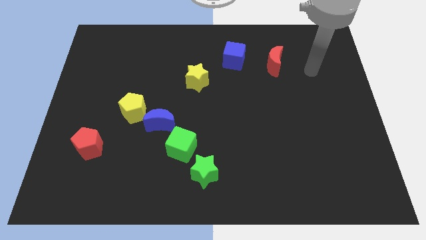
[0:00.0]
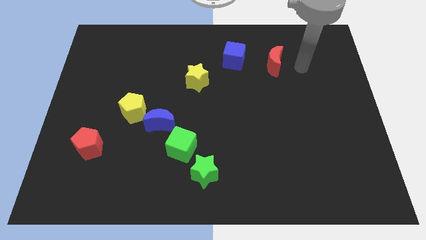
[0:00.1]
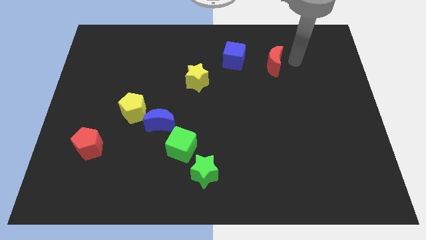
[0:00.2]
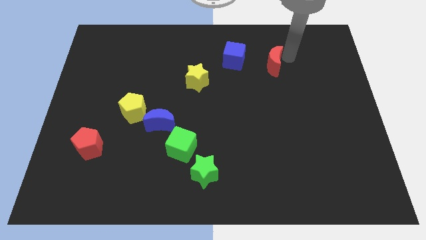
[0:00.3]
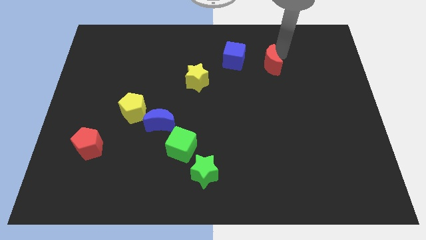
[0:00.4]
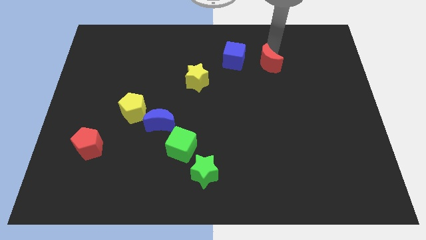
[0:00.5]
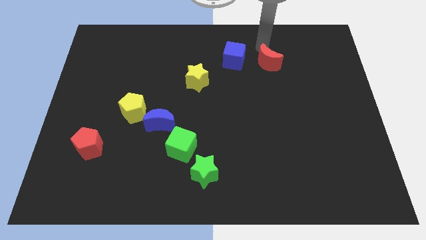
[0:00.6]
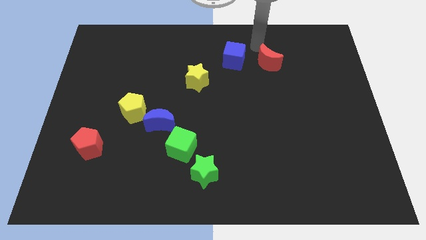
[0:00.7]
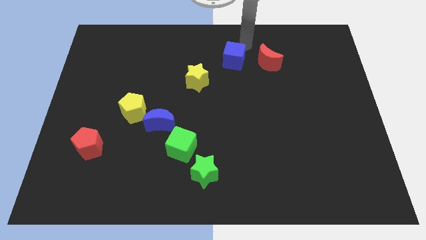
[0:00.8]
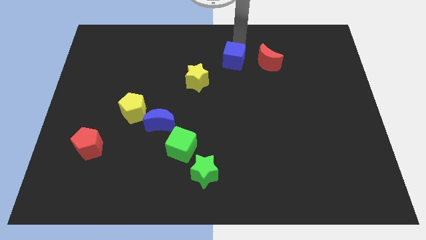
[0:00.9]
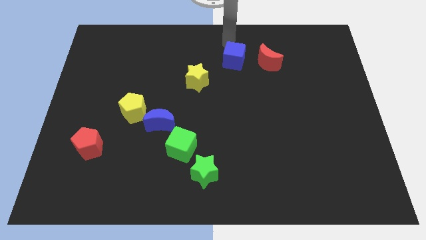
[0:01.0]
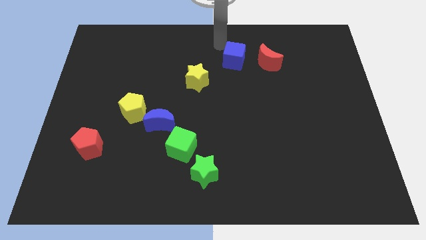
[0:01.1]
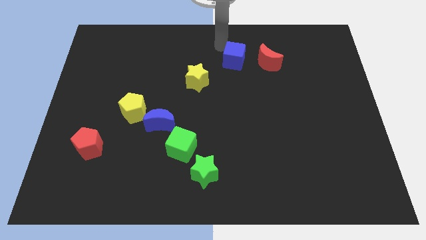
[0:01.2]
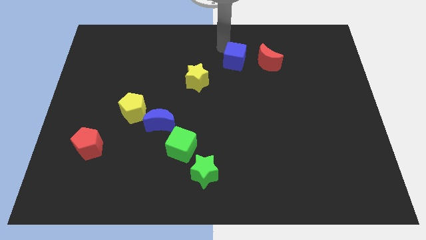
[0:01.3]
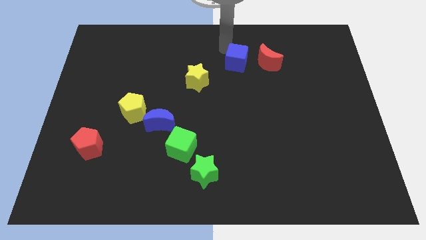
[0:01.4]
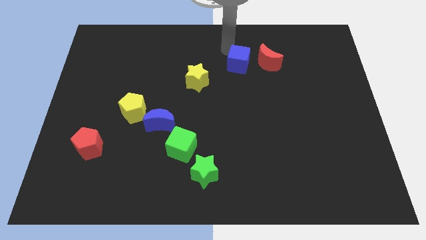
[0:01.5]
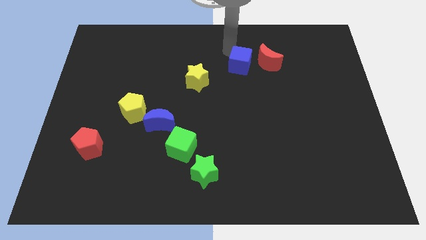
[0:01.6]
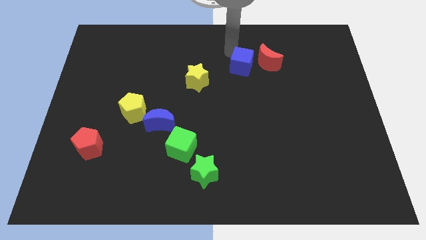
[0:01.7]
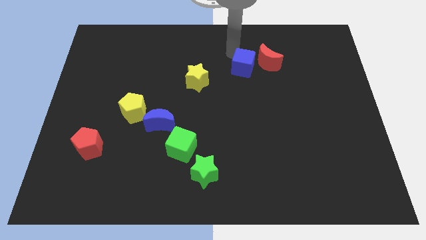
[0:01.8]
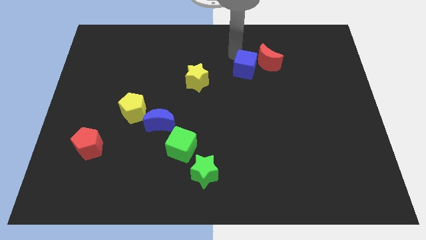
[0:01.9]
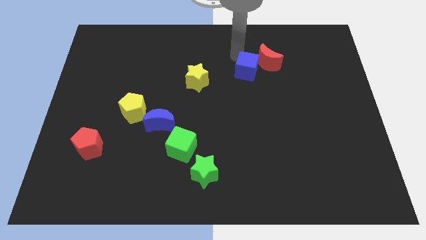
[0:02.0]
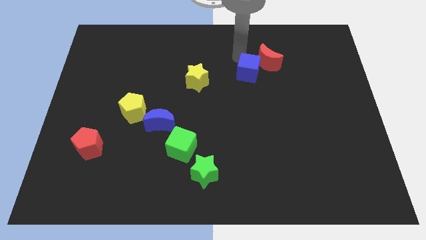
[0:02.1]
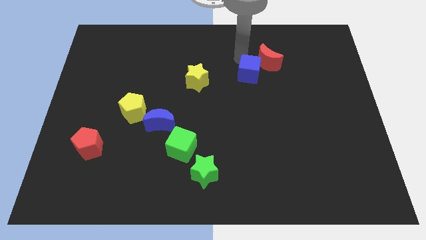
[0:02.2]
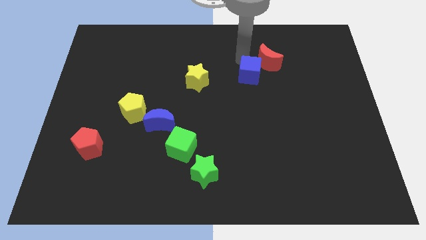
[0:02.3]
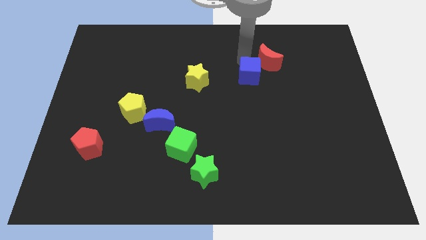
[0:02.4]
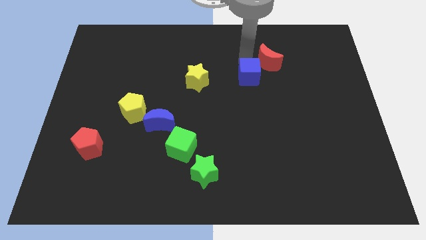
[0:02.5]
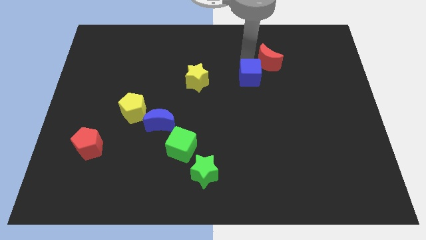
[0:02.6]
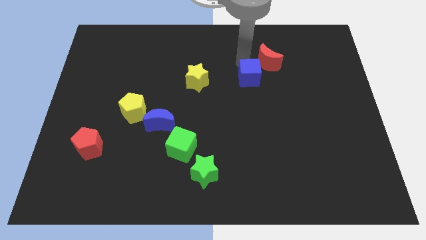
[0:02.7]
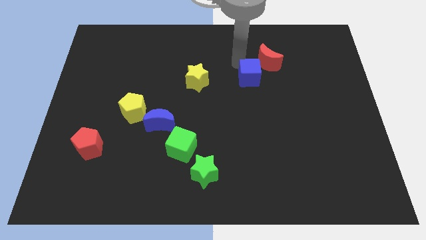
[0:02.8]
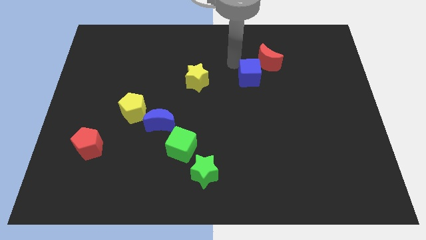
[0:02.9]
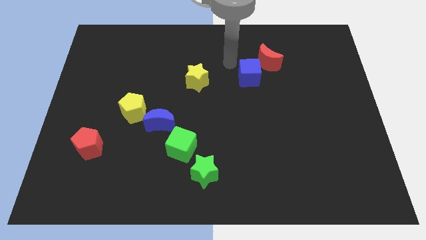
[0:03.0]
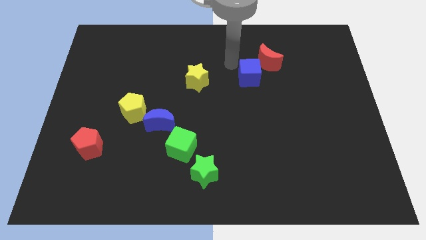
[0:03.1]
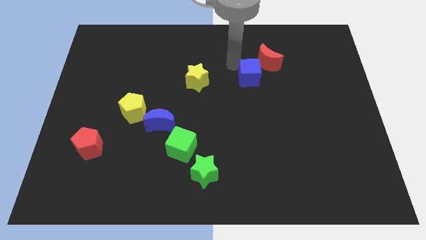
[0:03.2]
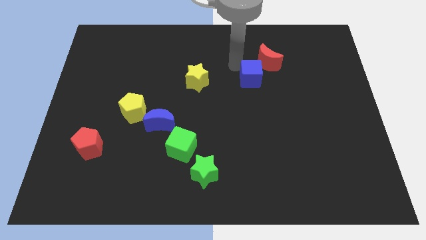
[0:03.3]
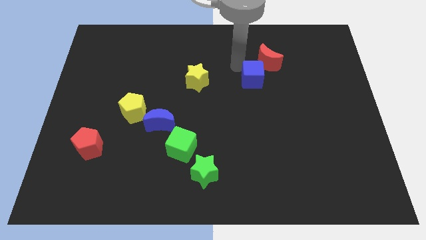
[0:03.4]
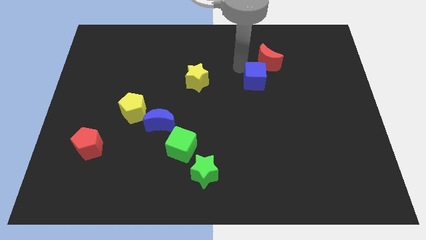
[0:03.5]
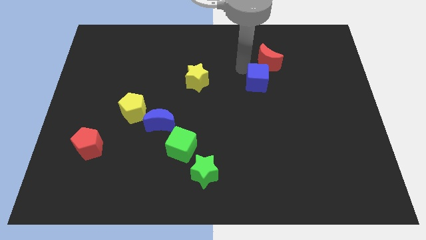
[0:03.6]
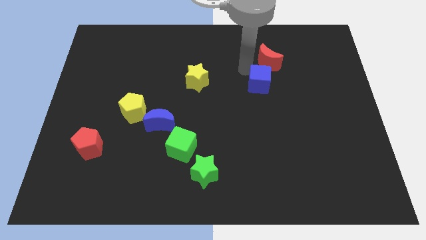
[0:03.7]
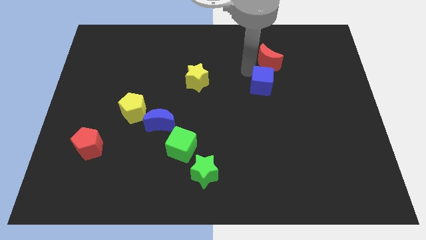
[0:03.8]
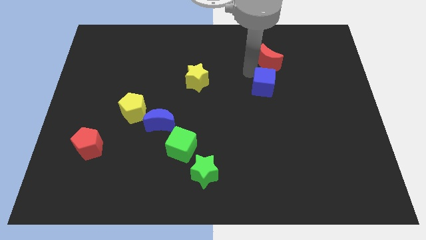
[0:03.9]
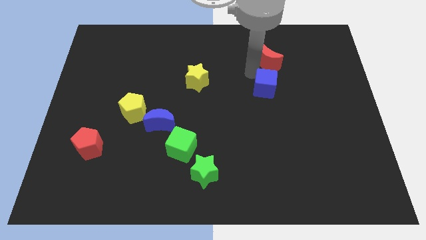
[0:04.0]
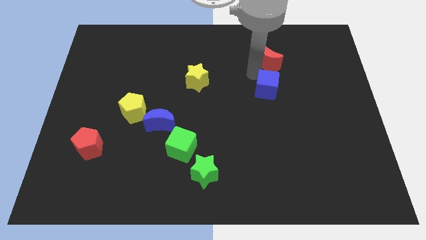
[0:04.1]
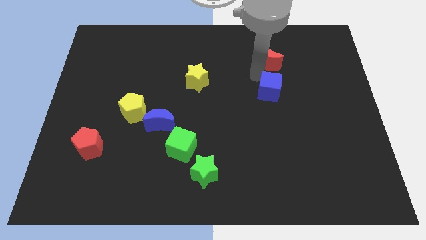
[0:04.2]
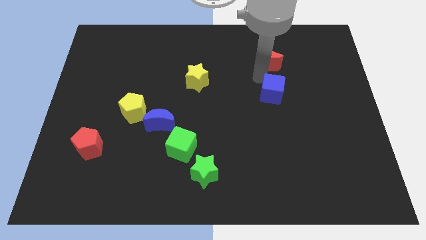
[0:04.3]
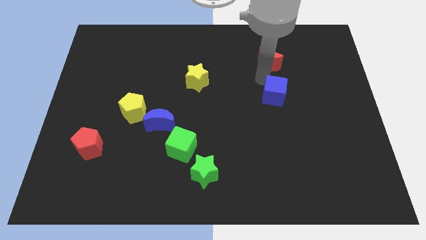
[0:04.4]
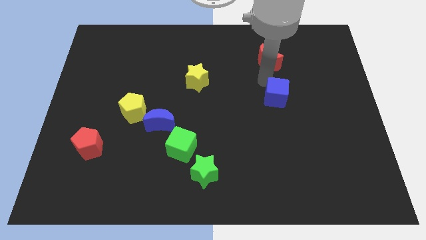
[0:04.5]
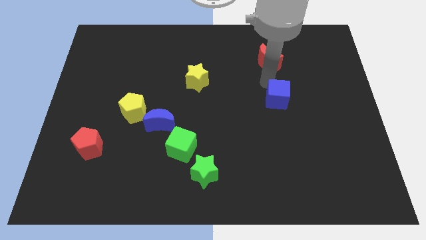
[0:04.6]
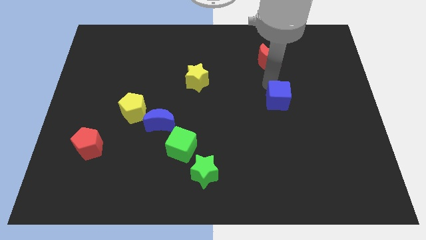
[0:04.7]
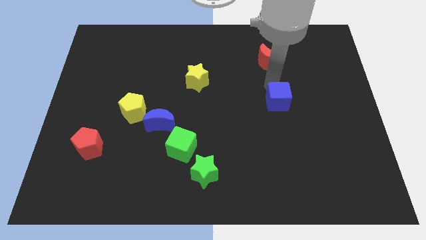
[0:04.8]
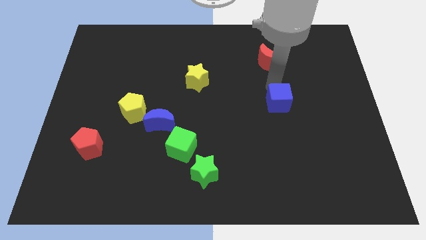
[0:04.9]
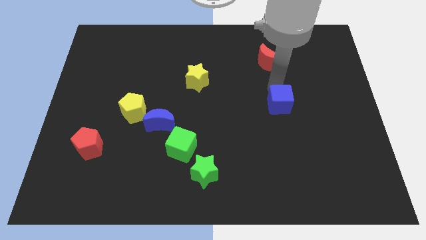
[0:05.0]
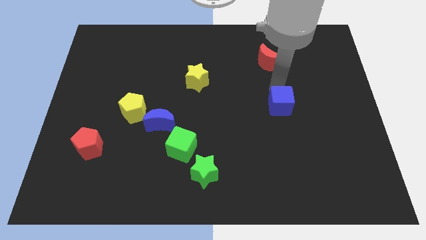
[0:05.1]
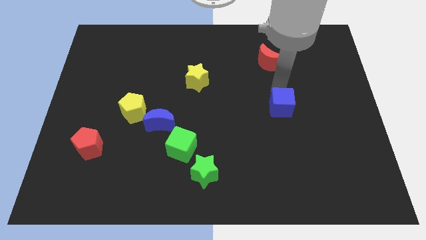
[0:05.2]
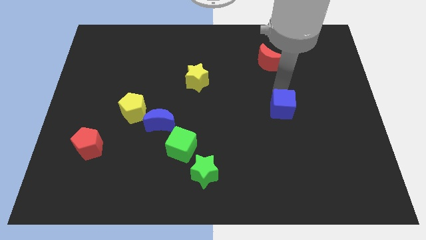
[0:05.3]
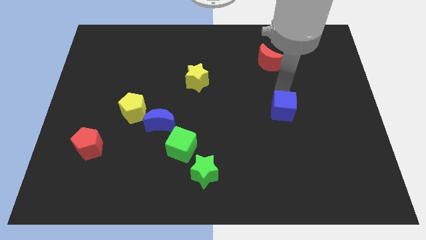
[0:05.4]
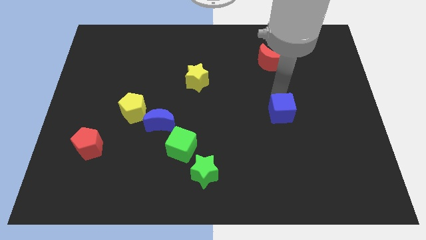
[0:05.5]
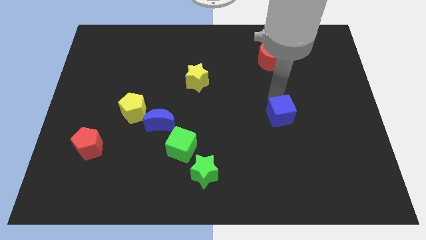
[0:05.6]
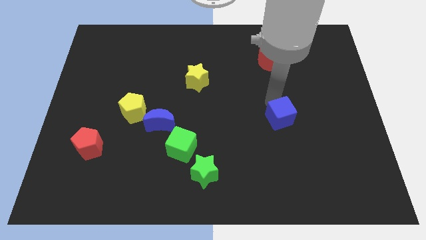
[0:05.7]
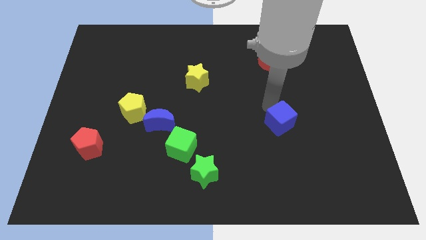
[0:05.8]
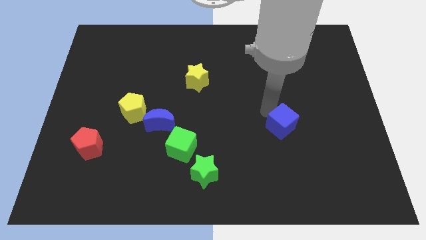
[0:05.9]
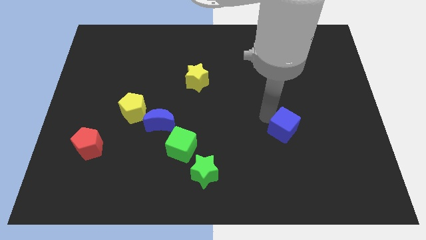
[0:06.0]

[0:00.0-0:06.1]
push the blue cube downwards and then to the right

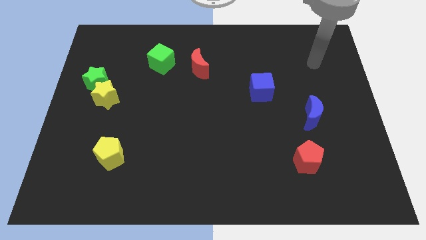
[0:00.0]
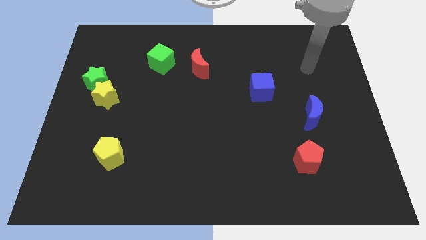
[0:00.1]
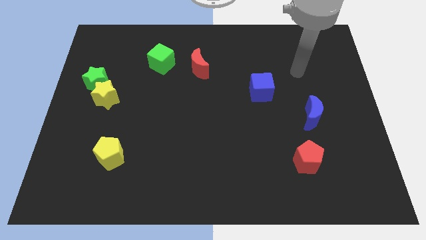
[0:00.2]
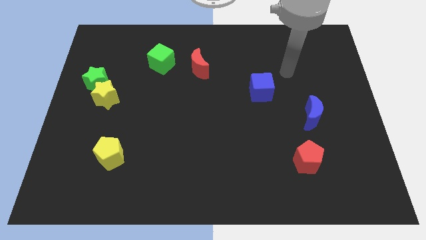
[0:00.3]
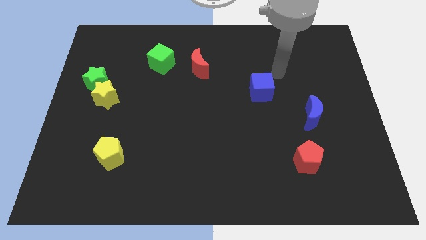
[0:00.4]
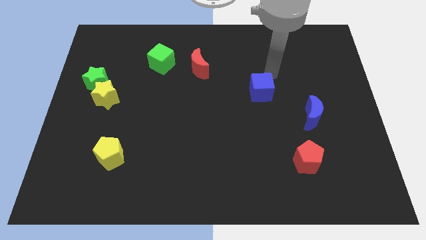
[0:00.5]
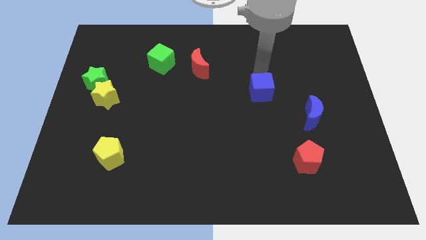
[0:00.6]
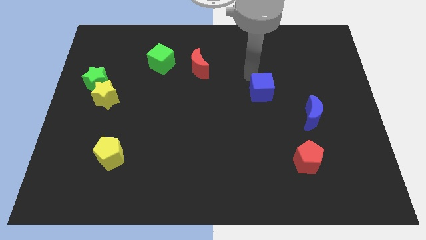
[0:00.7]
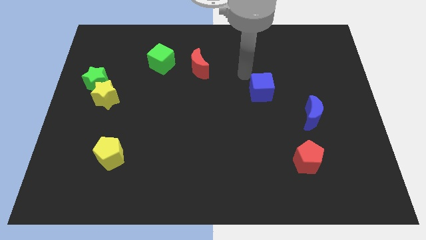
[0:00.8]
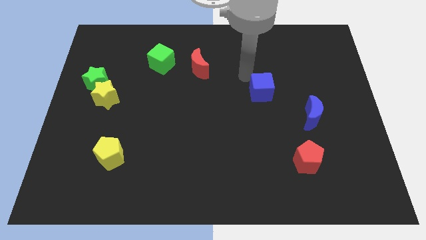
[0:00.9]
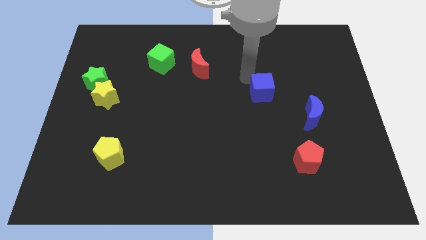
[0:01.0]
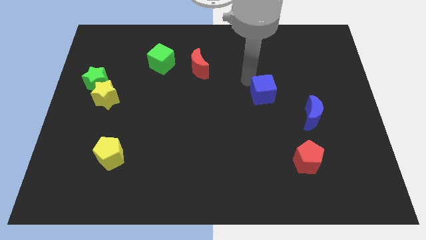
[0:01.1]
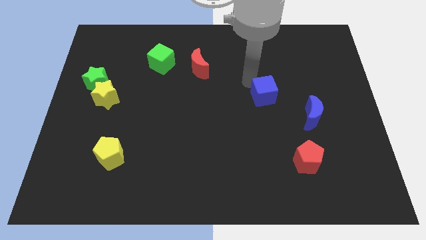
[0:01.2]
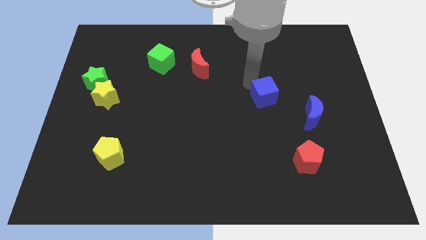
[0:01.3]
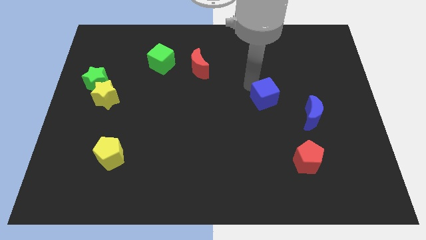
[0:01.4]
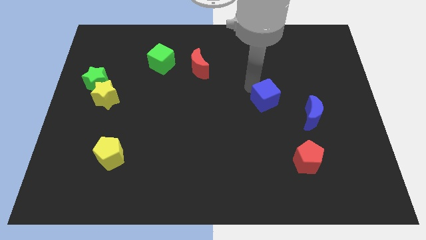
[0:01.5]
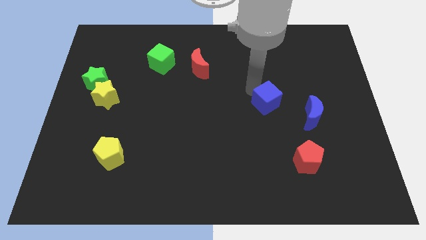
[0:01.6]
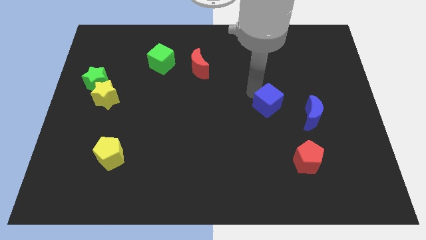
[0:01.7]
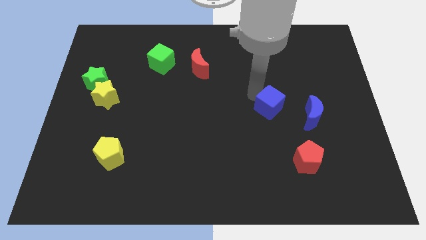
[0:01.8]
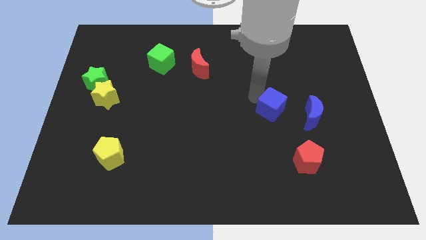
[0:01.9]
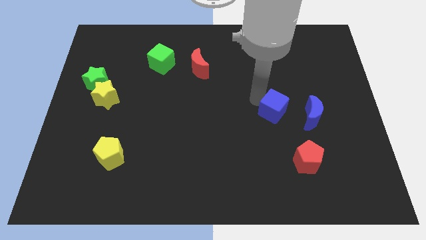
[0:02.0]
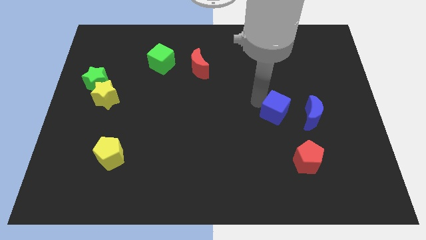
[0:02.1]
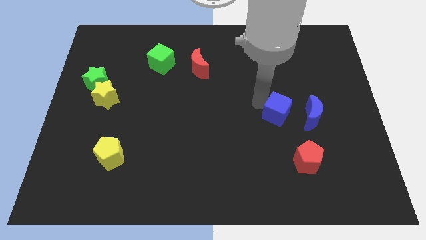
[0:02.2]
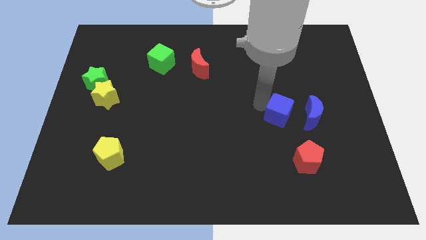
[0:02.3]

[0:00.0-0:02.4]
push the blue cube a little diagonally downwards and to the right
